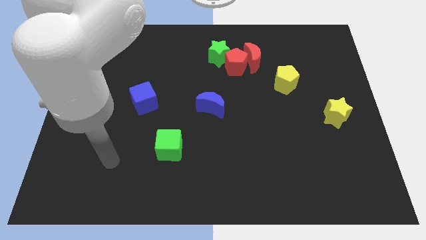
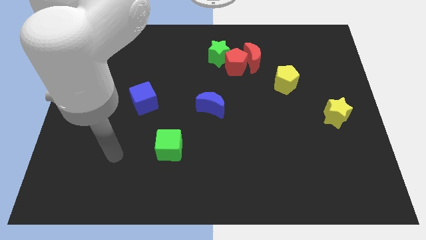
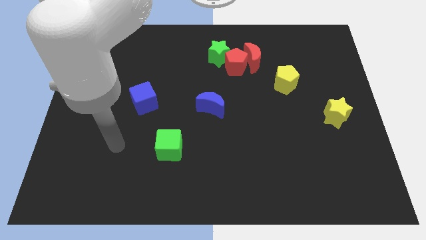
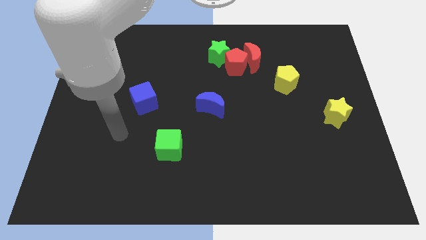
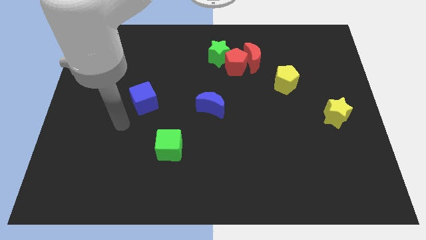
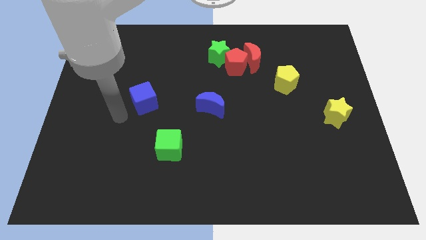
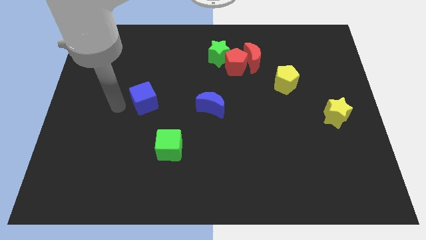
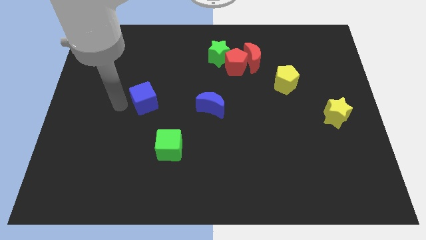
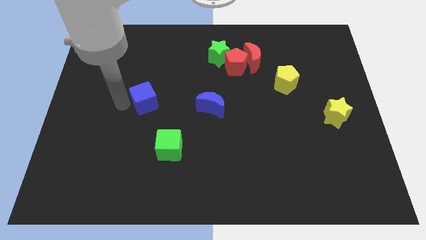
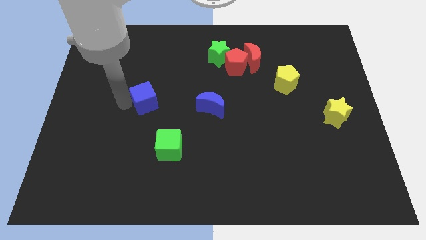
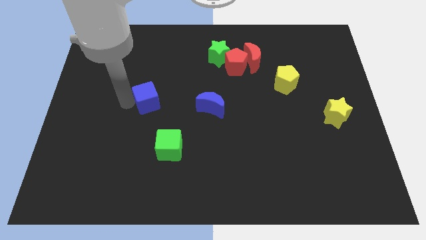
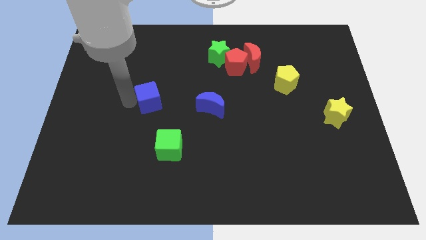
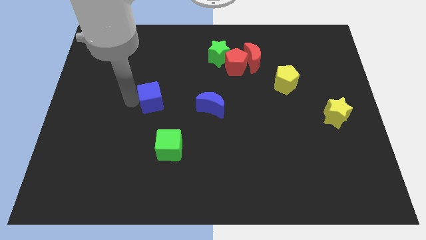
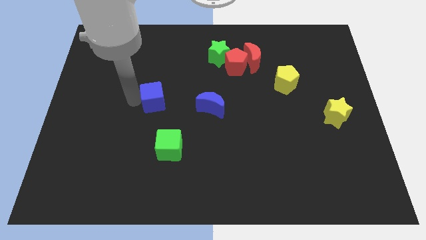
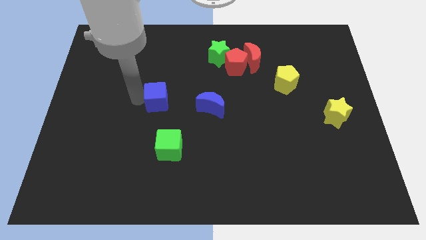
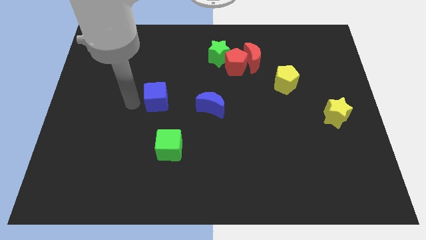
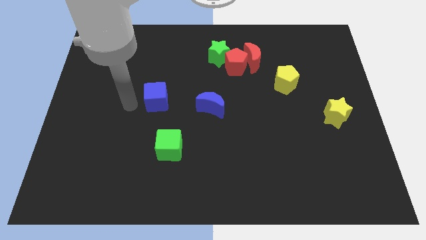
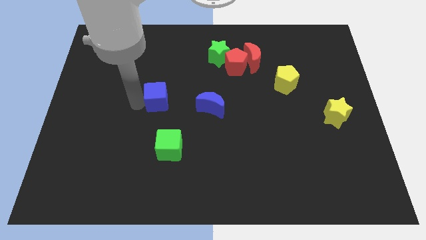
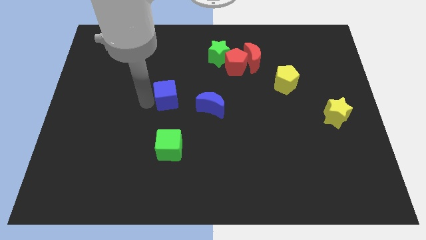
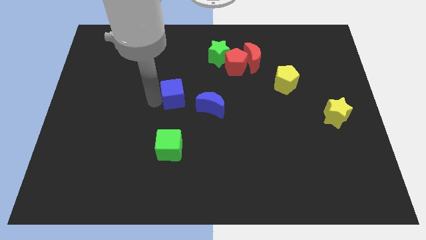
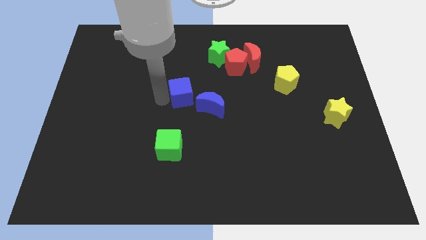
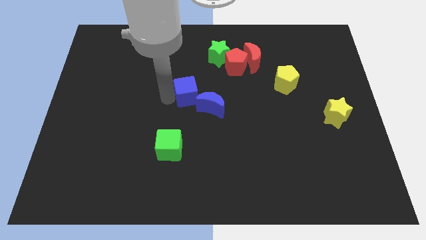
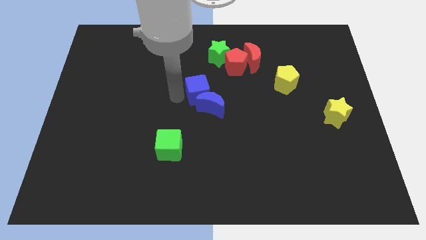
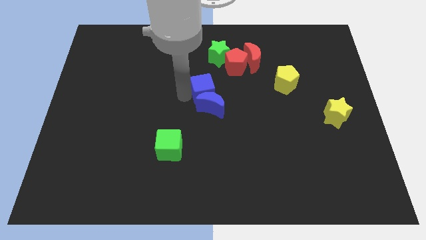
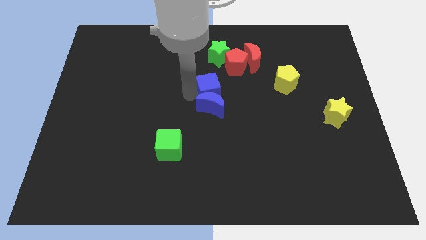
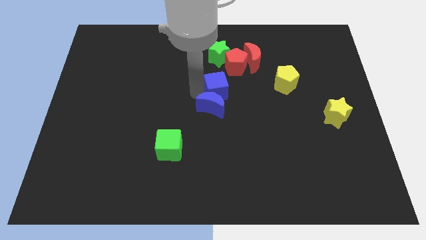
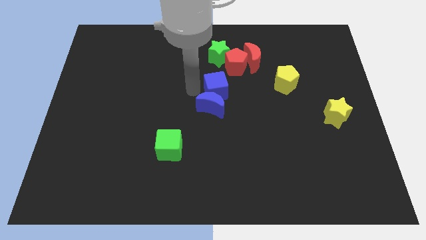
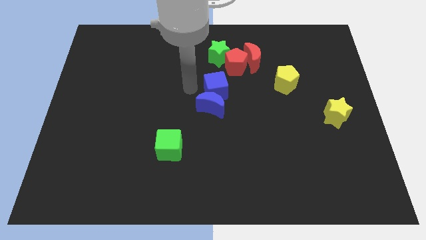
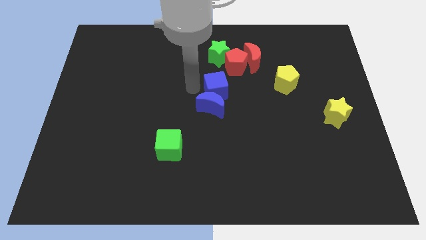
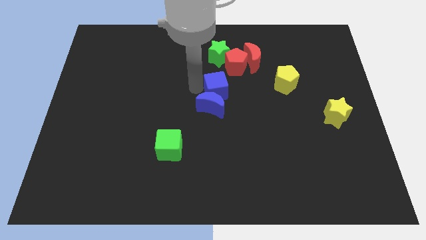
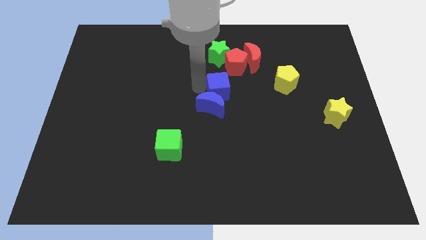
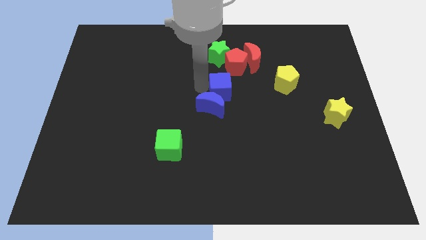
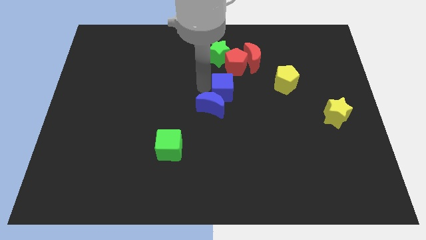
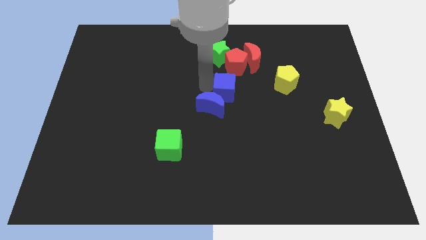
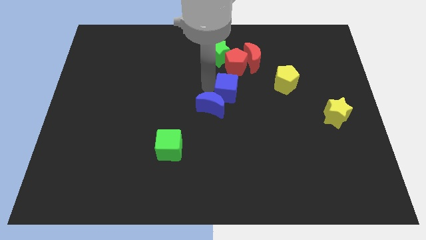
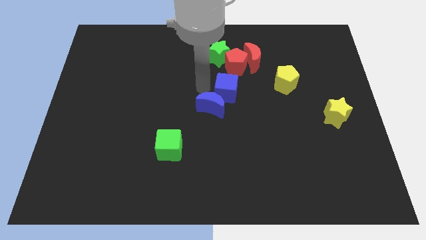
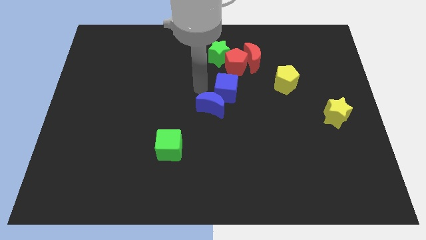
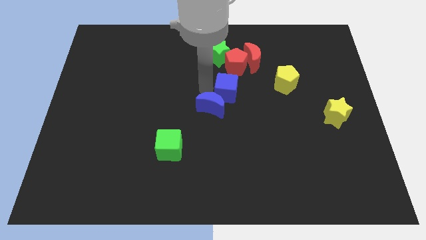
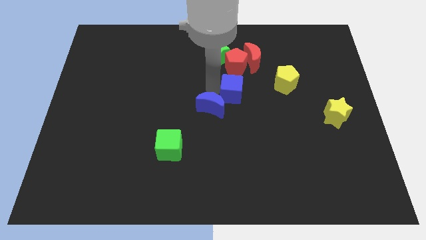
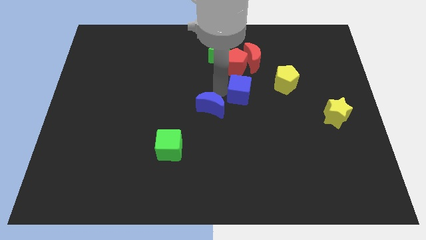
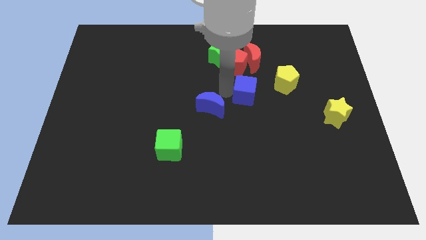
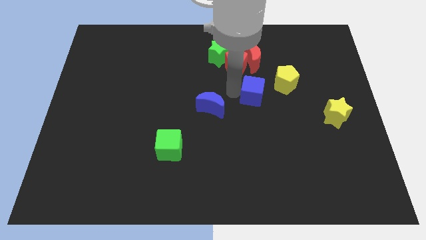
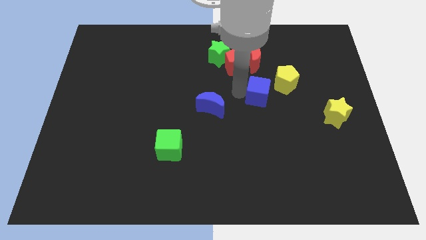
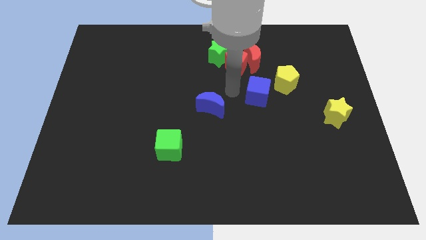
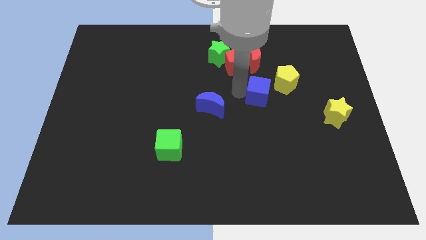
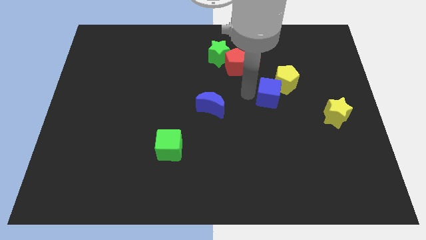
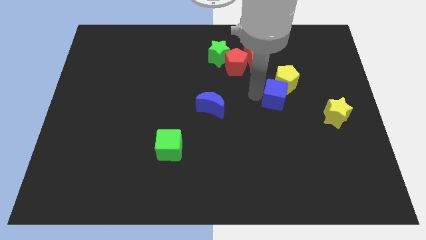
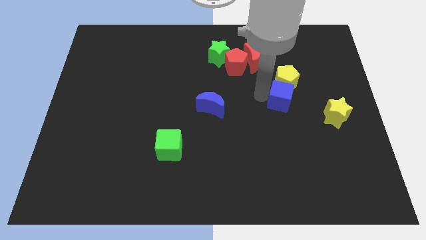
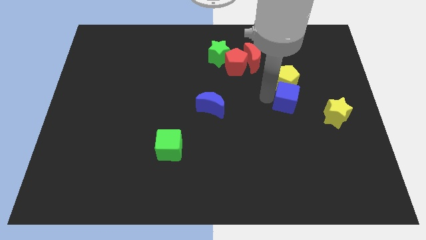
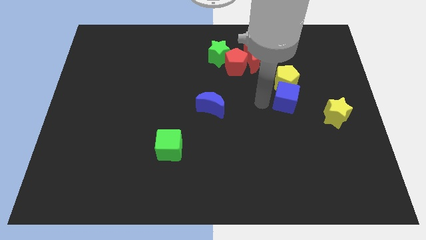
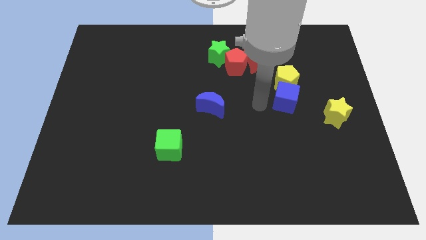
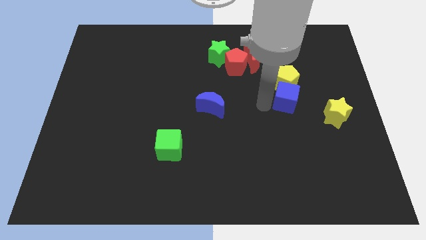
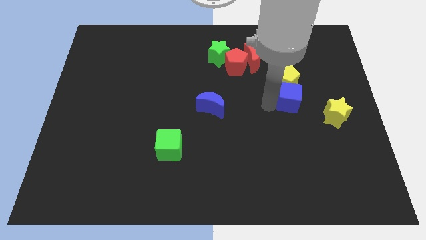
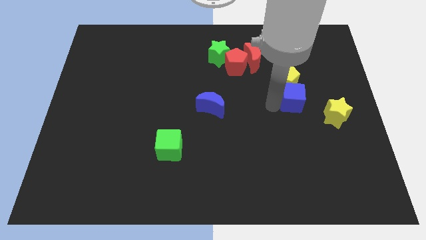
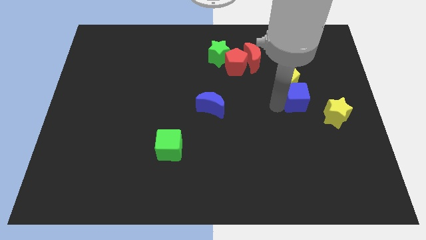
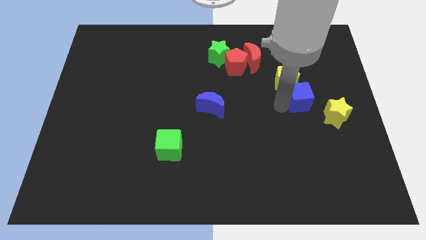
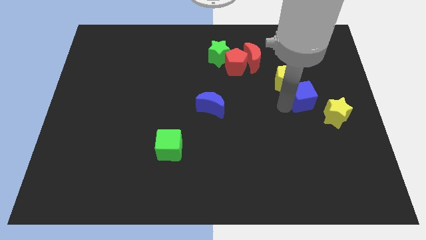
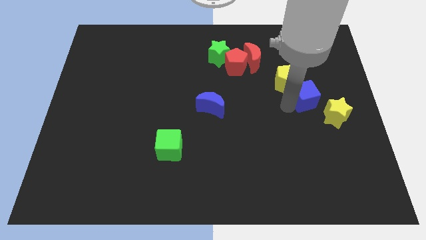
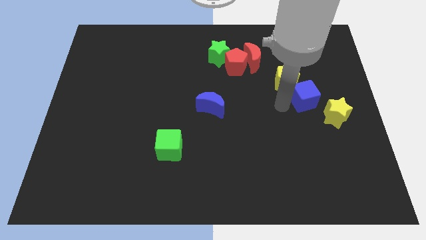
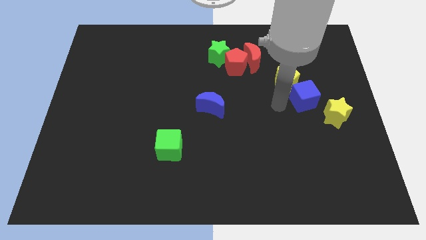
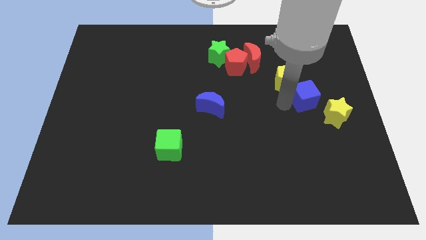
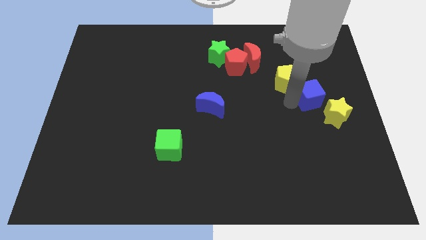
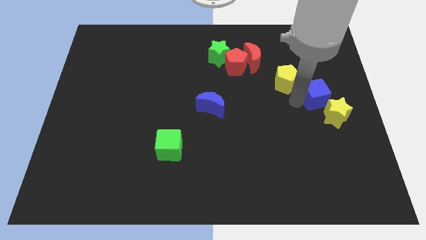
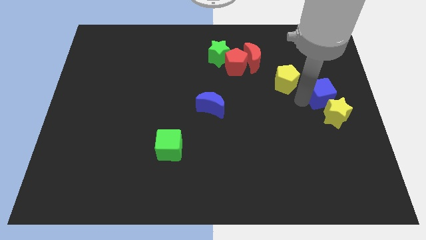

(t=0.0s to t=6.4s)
move the blue cube to the center right

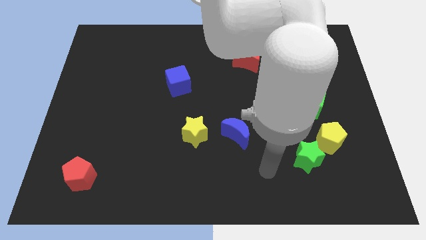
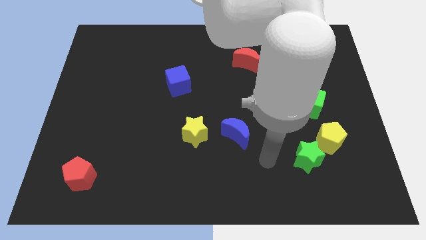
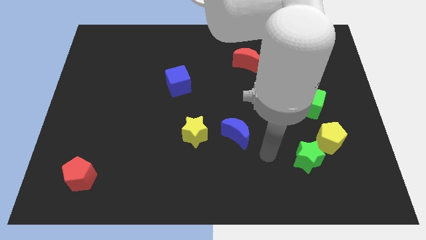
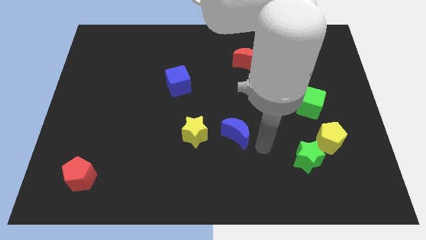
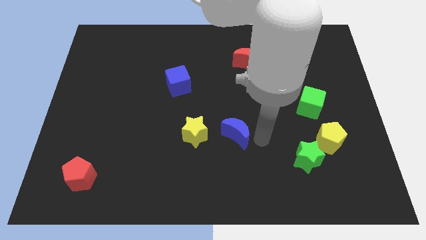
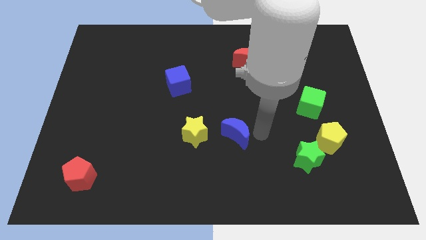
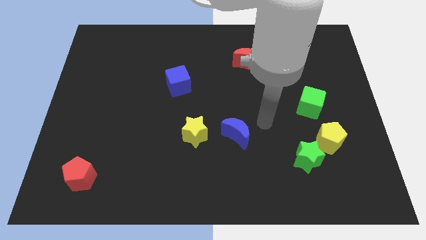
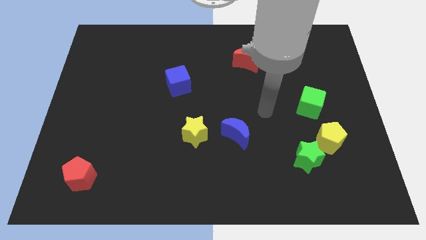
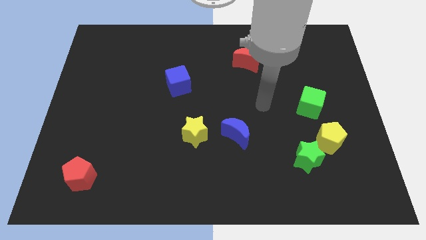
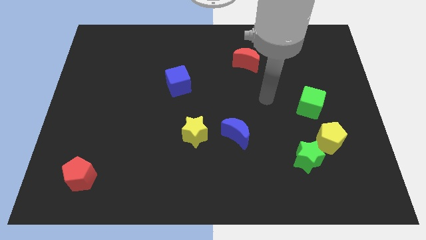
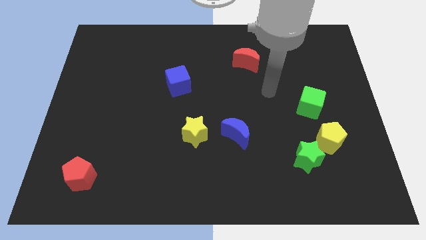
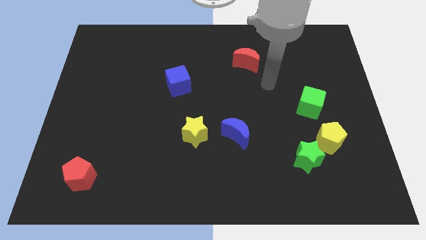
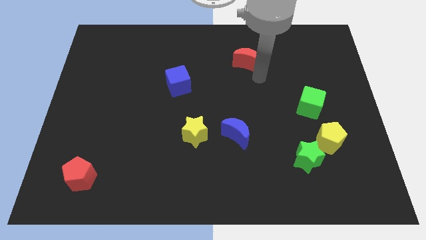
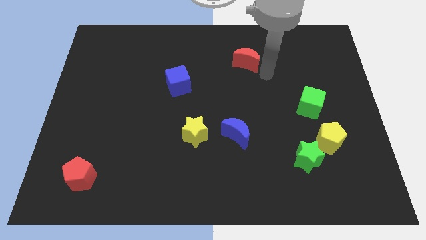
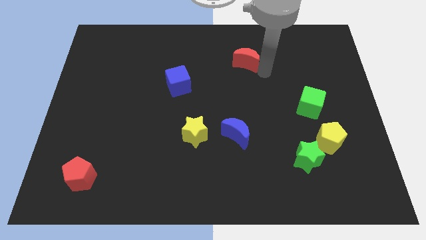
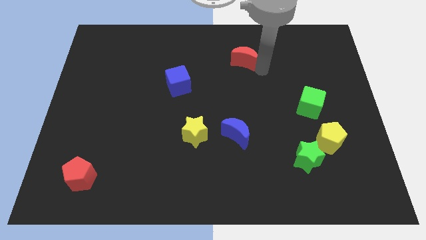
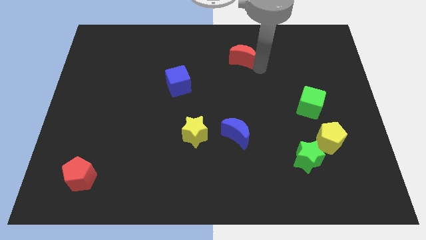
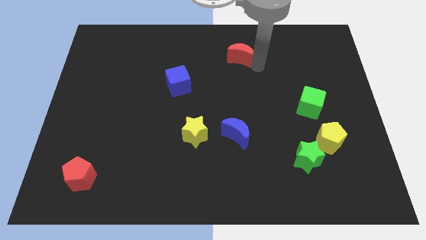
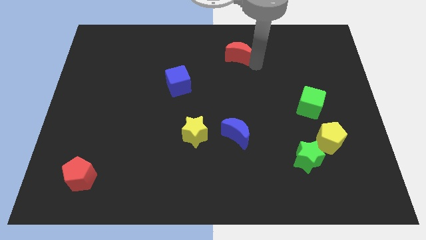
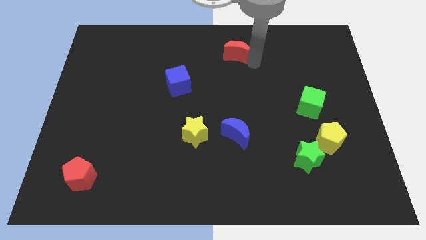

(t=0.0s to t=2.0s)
put the red moon to the top side
